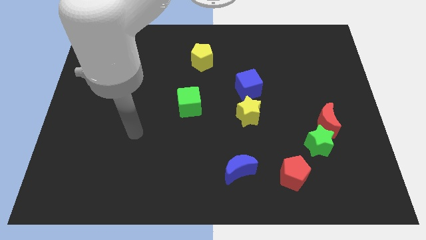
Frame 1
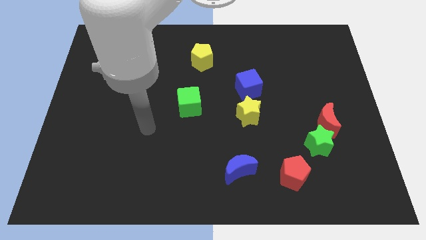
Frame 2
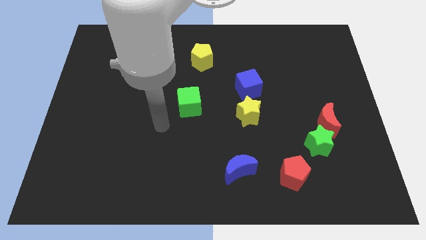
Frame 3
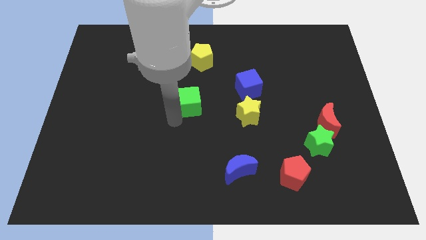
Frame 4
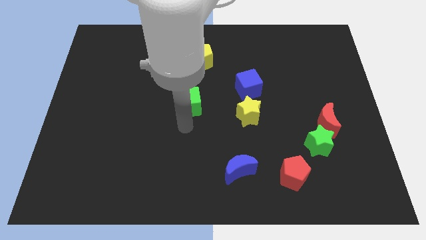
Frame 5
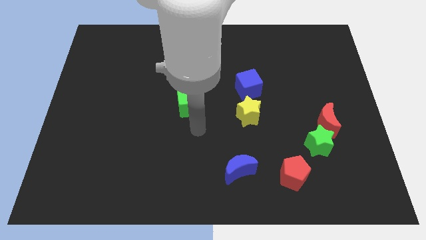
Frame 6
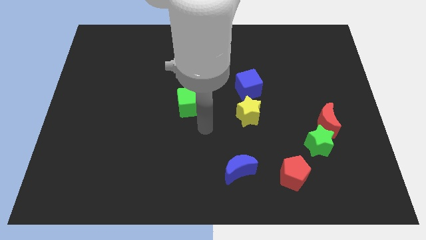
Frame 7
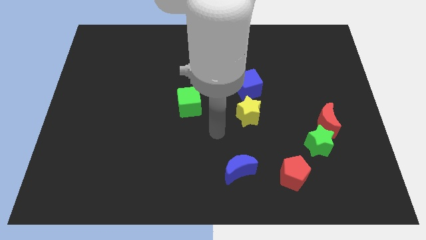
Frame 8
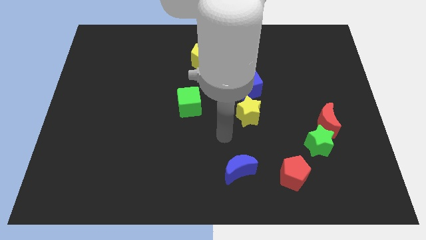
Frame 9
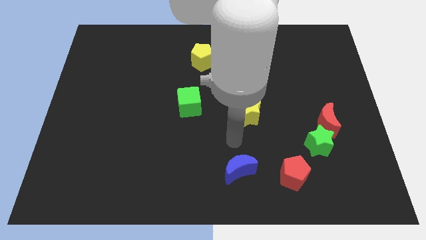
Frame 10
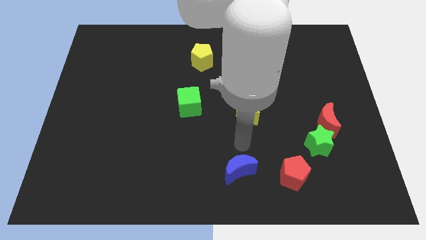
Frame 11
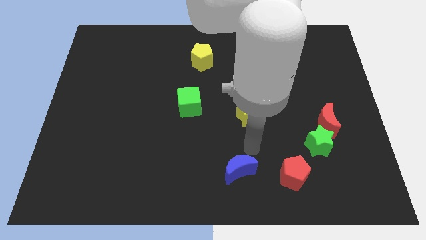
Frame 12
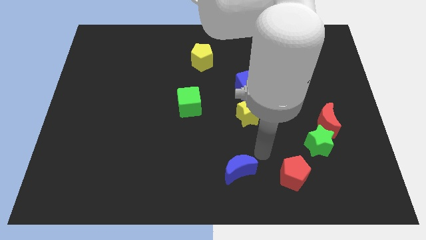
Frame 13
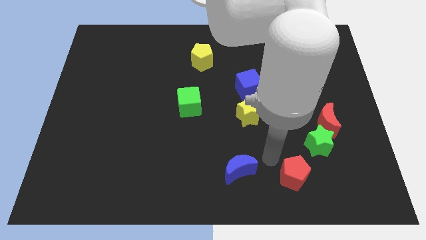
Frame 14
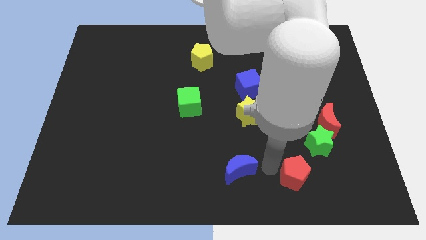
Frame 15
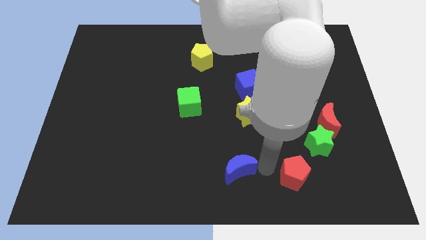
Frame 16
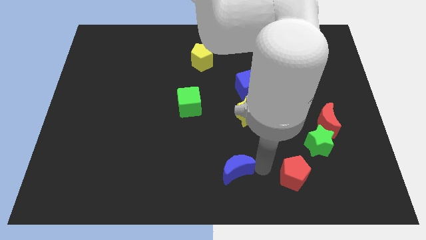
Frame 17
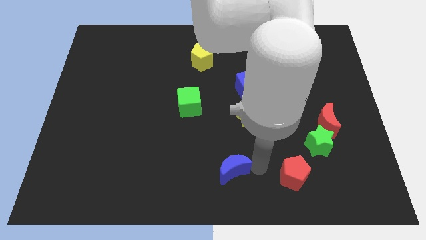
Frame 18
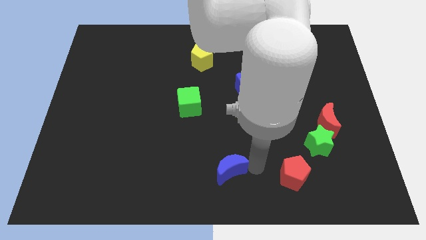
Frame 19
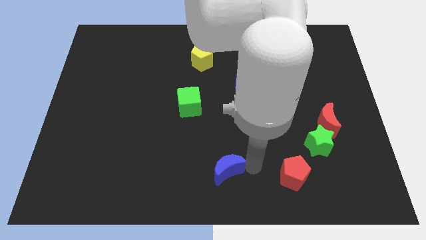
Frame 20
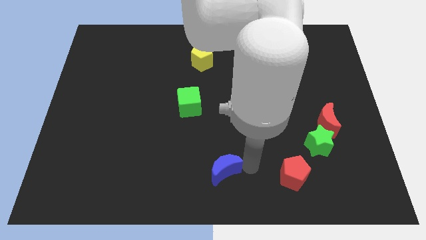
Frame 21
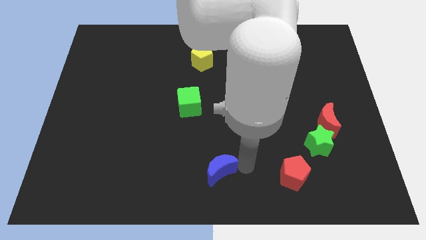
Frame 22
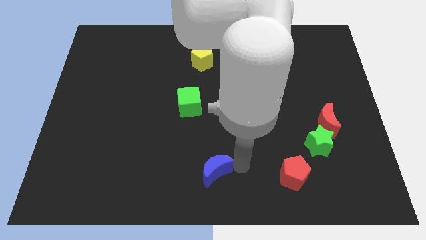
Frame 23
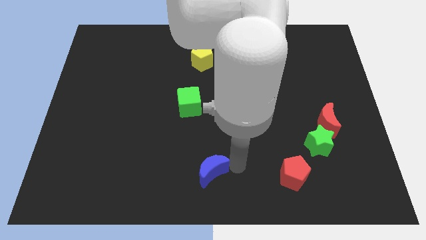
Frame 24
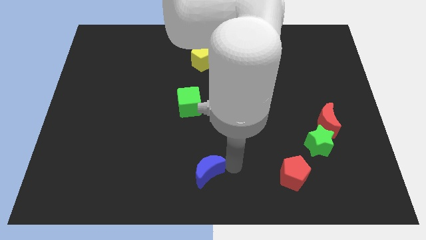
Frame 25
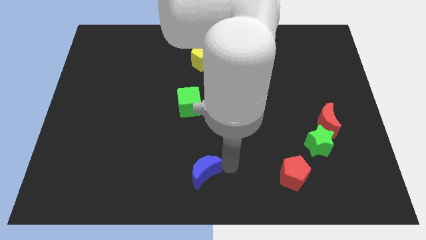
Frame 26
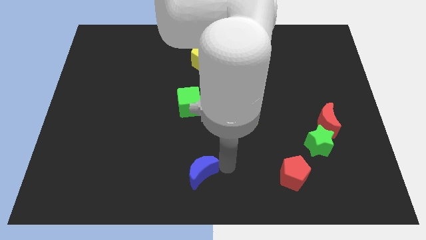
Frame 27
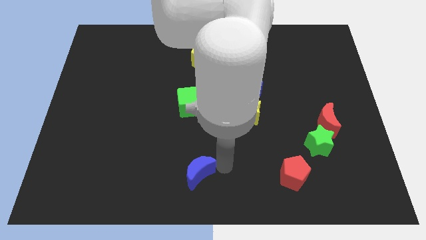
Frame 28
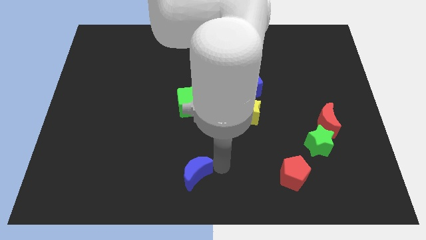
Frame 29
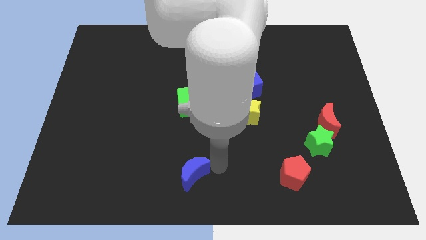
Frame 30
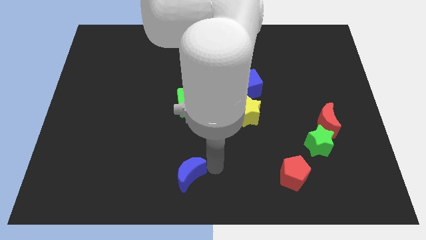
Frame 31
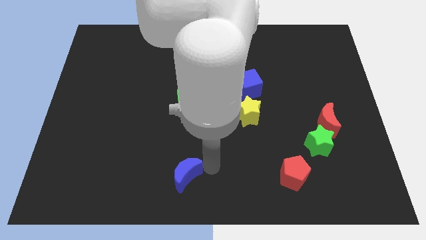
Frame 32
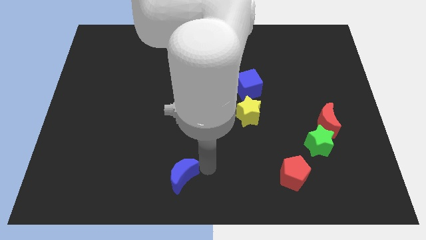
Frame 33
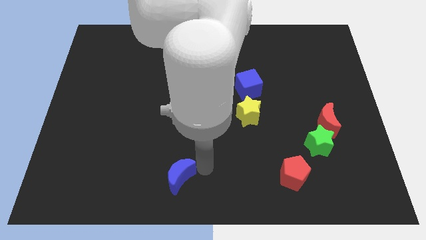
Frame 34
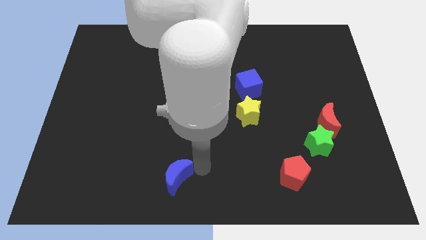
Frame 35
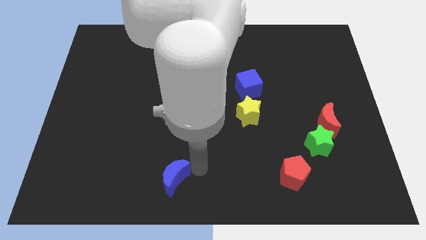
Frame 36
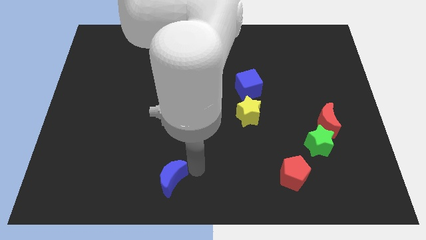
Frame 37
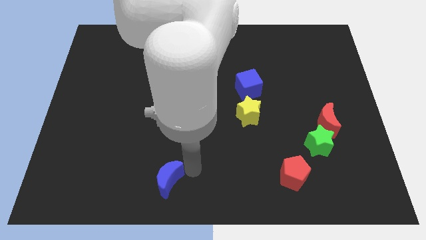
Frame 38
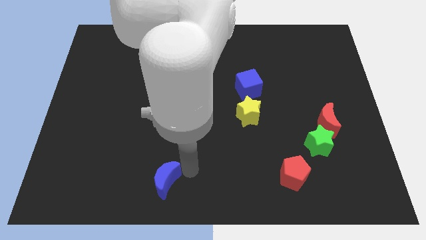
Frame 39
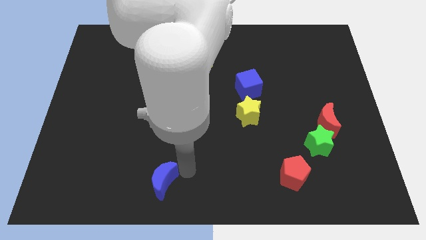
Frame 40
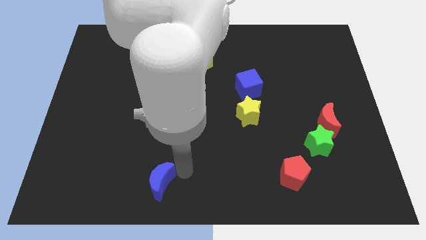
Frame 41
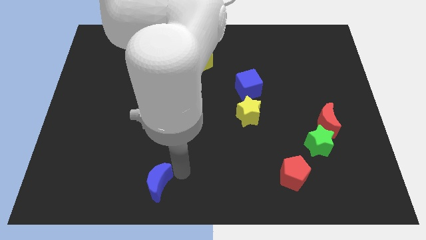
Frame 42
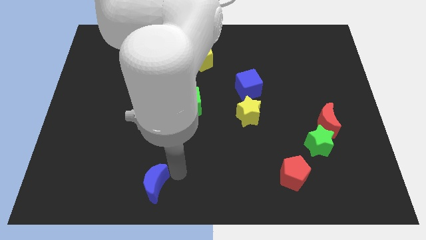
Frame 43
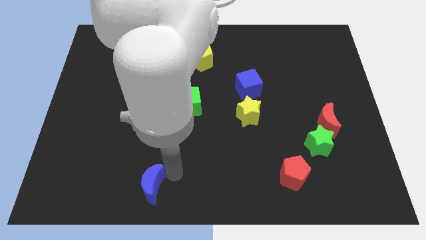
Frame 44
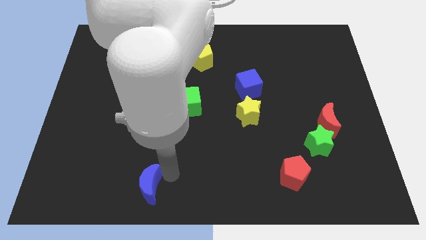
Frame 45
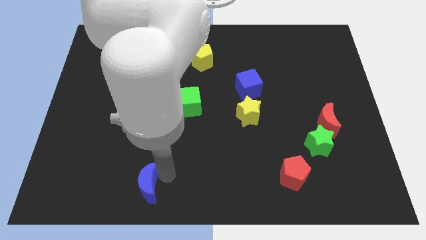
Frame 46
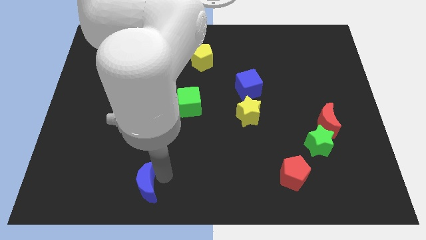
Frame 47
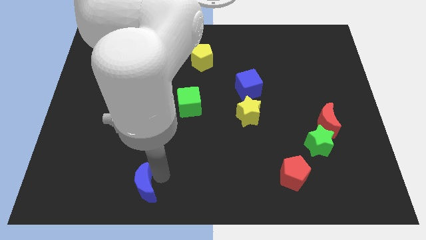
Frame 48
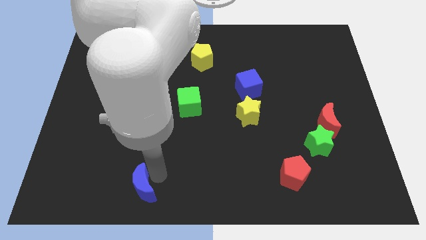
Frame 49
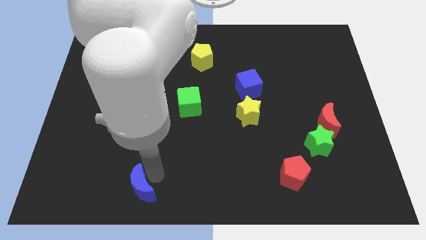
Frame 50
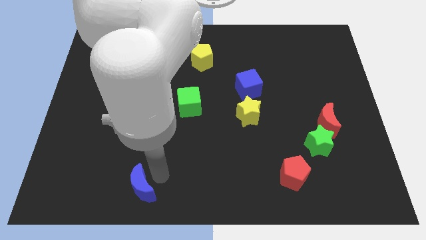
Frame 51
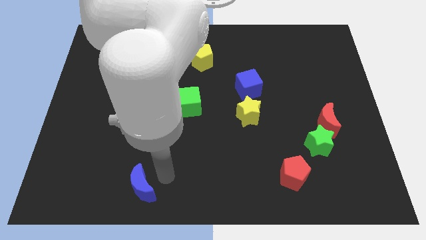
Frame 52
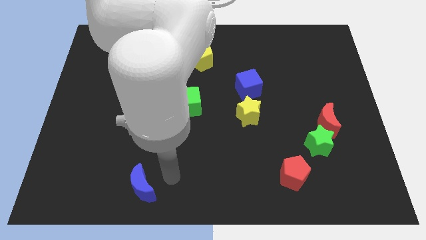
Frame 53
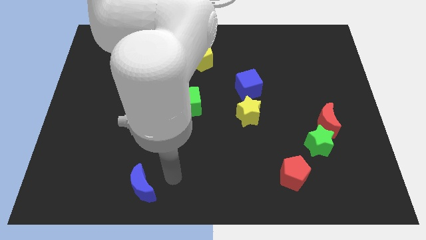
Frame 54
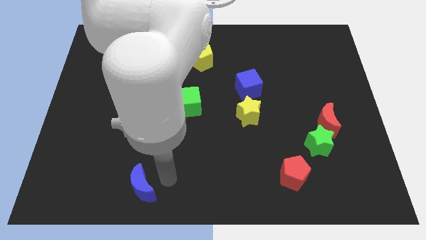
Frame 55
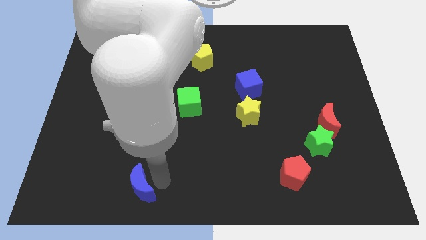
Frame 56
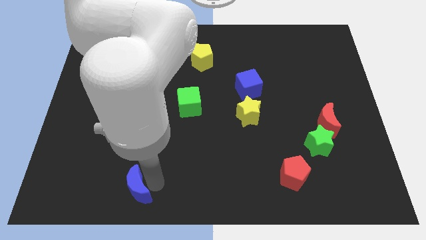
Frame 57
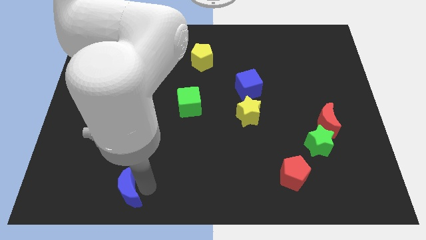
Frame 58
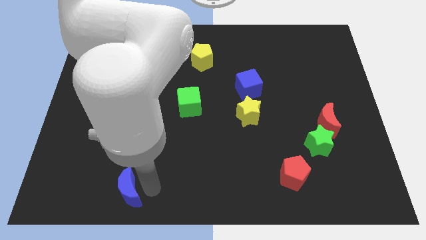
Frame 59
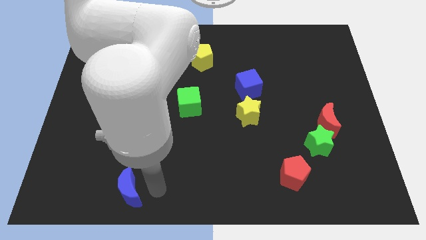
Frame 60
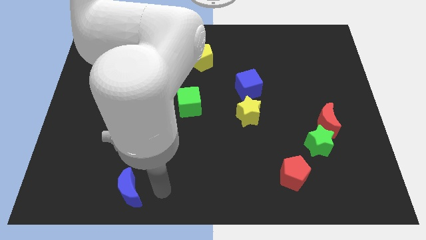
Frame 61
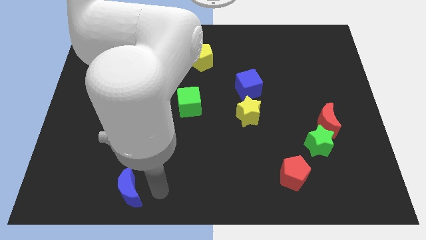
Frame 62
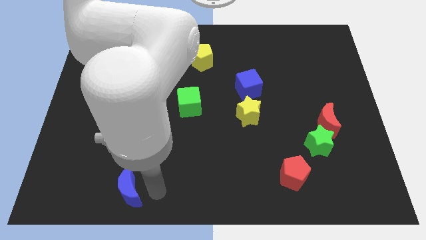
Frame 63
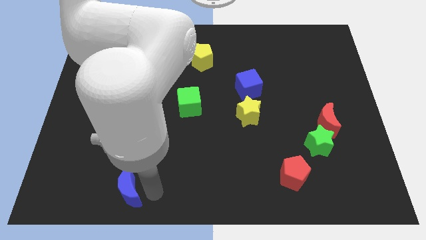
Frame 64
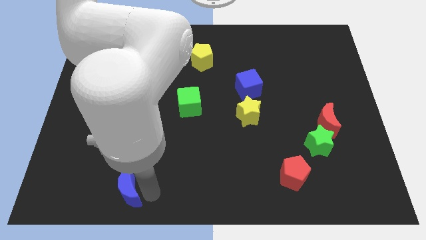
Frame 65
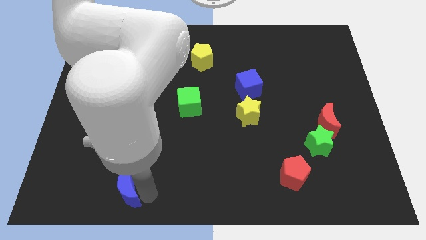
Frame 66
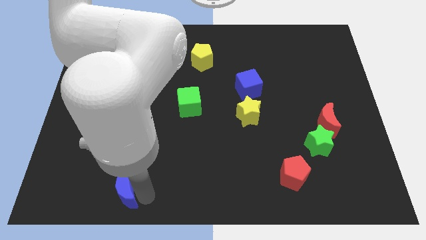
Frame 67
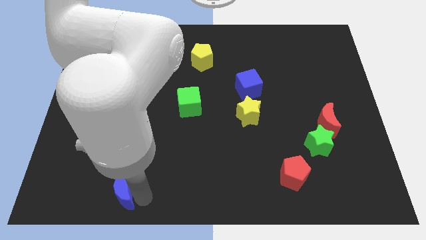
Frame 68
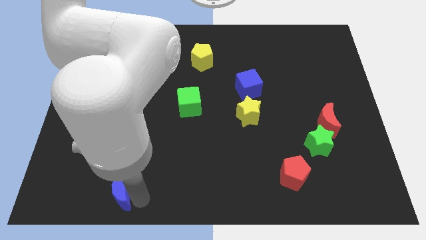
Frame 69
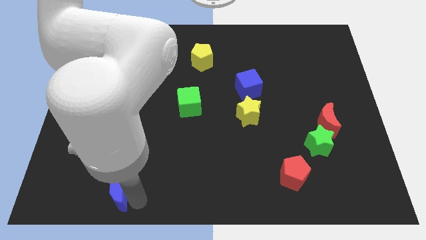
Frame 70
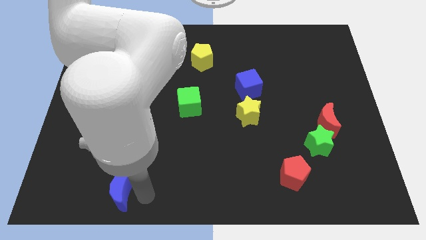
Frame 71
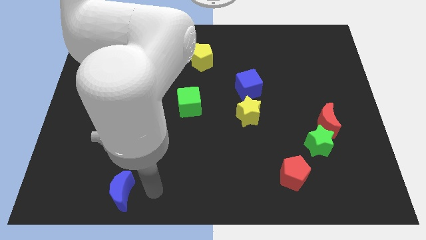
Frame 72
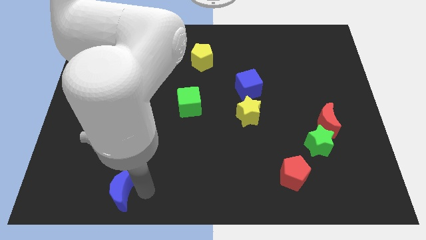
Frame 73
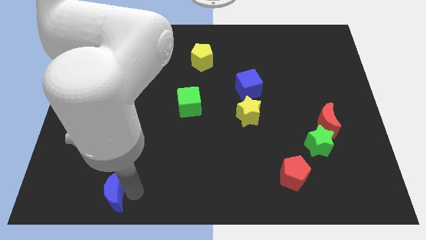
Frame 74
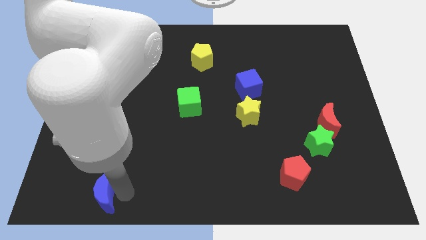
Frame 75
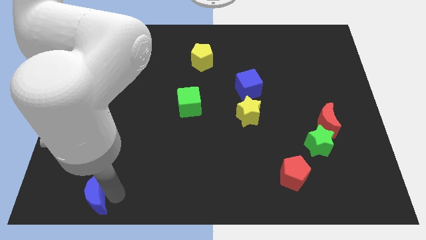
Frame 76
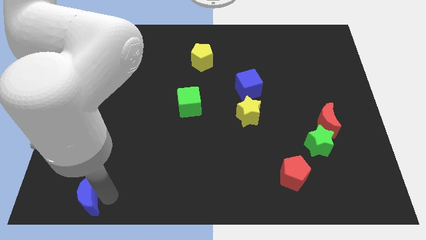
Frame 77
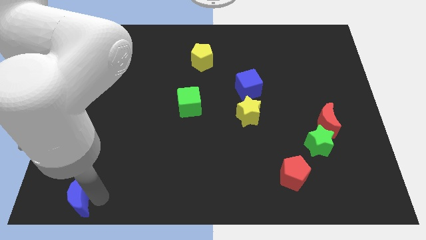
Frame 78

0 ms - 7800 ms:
move the blue moon to the lower left corner
